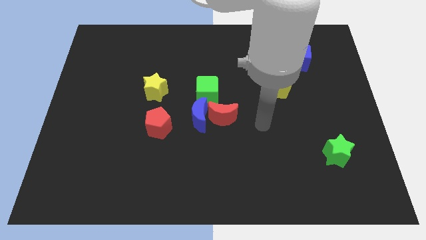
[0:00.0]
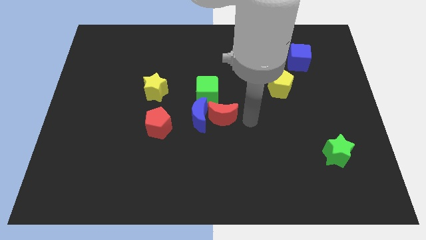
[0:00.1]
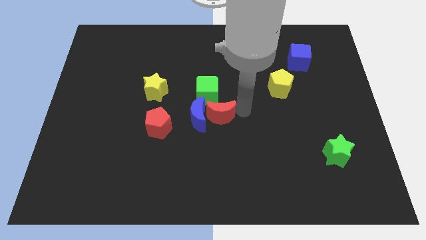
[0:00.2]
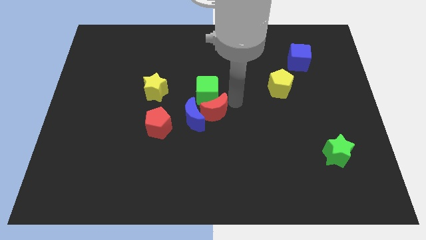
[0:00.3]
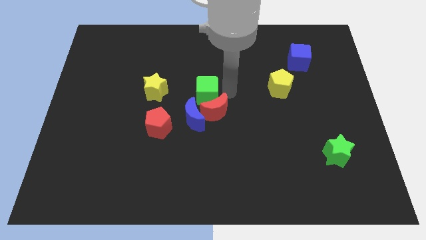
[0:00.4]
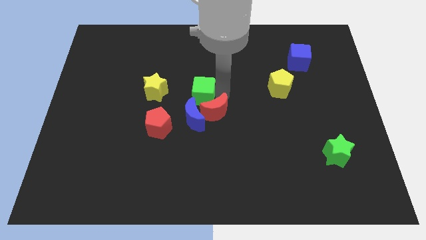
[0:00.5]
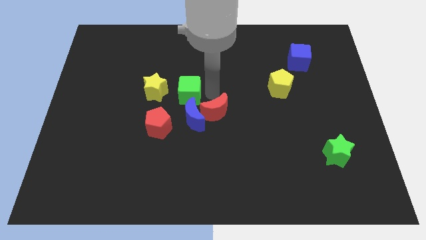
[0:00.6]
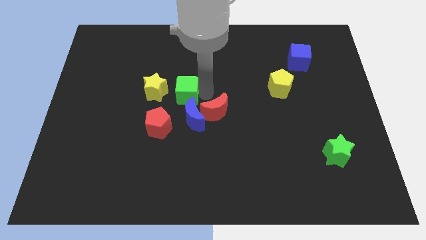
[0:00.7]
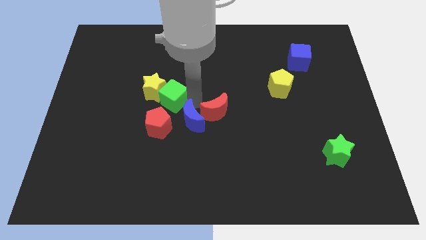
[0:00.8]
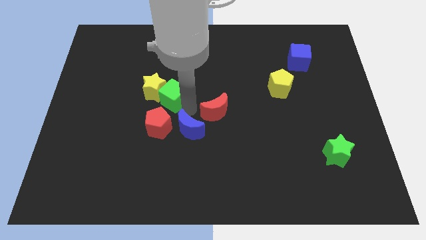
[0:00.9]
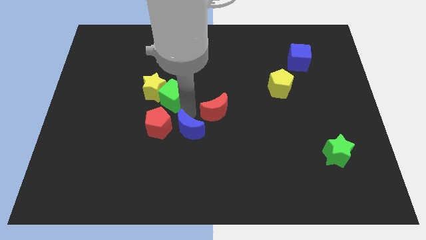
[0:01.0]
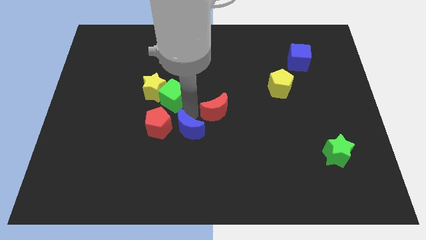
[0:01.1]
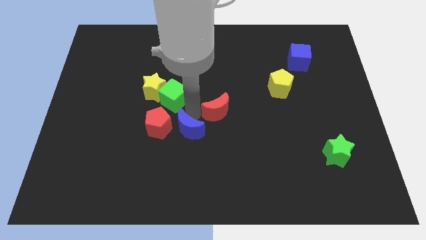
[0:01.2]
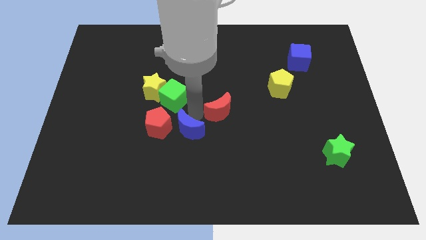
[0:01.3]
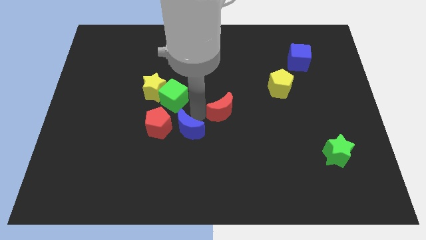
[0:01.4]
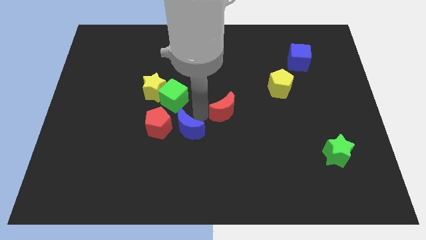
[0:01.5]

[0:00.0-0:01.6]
pull the red moon apart from the blue moon and green cube

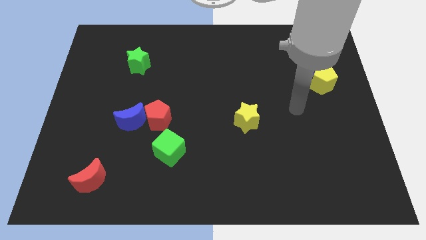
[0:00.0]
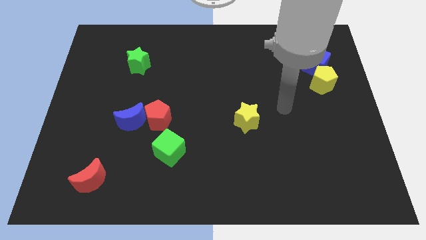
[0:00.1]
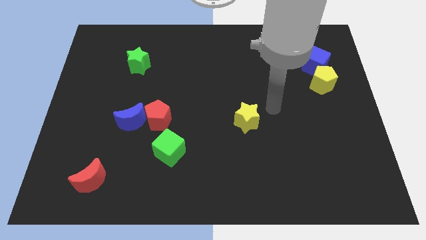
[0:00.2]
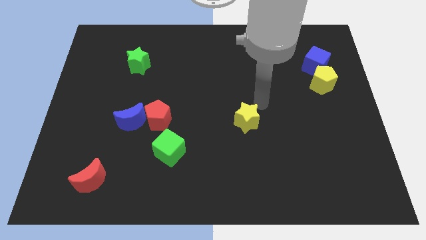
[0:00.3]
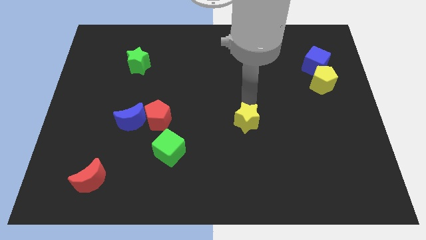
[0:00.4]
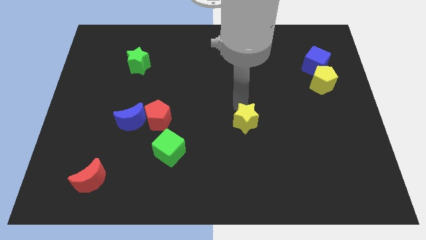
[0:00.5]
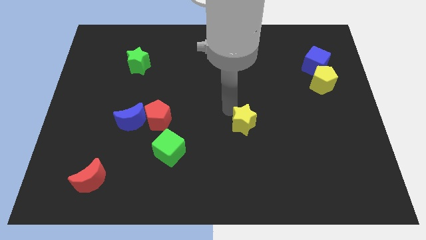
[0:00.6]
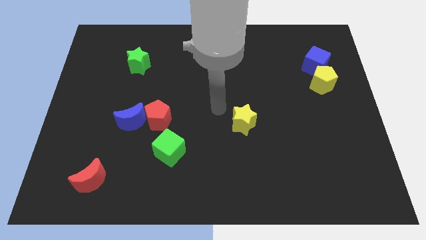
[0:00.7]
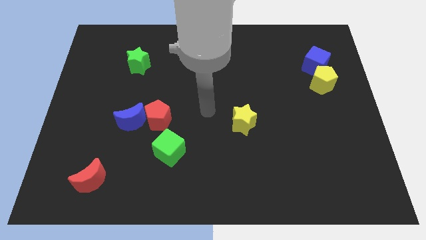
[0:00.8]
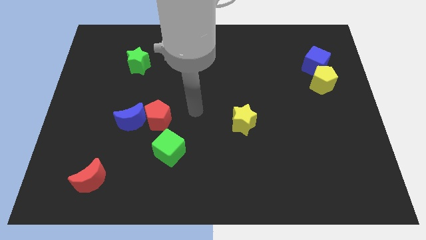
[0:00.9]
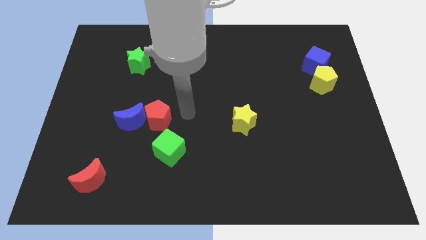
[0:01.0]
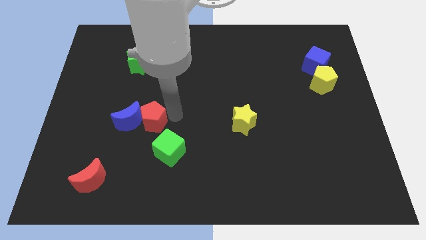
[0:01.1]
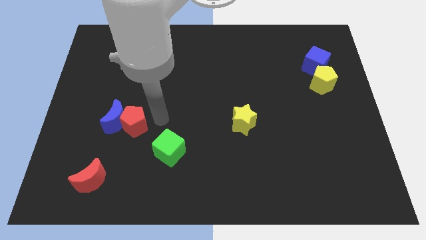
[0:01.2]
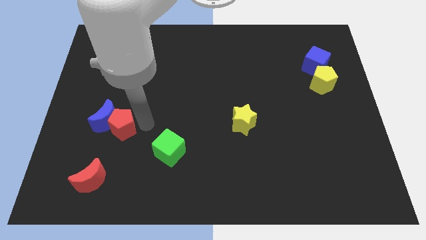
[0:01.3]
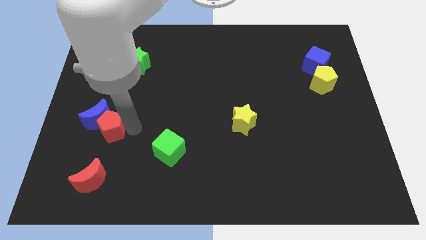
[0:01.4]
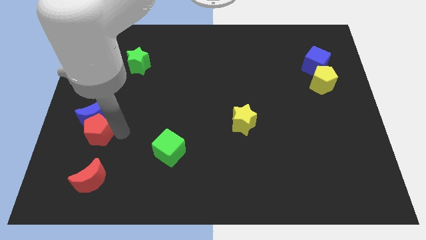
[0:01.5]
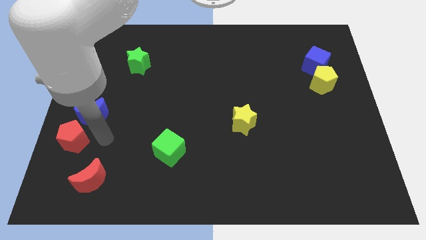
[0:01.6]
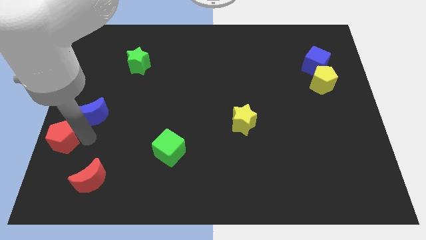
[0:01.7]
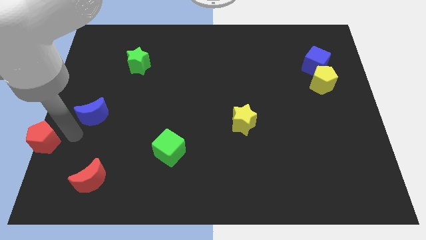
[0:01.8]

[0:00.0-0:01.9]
pull the blue moon apart from the red pentagon

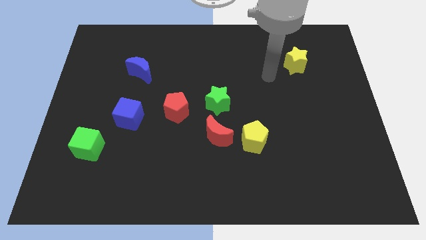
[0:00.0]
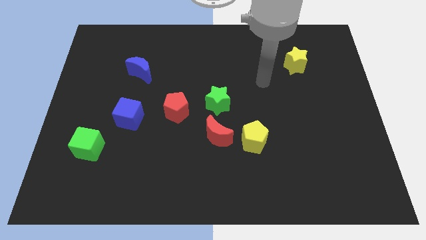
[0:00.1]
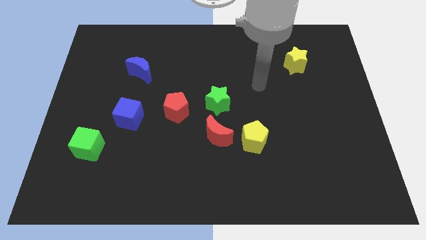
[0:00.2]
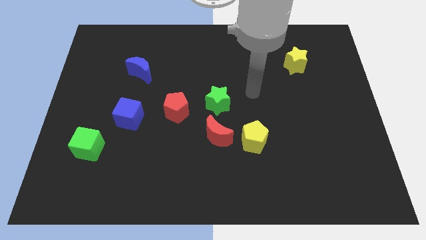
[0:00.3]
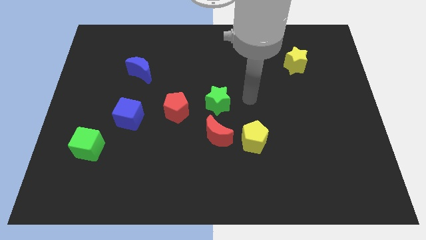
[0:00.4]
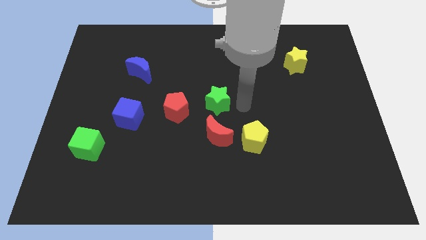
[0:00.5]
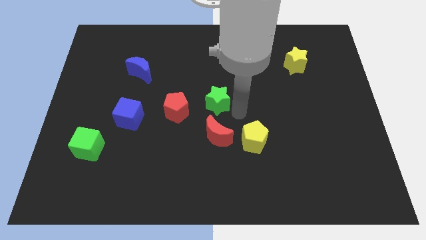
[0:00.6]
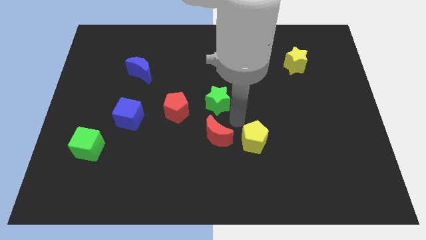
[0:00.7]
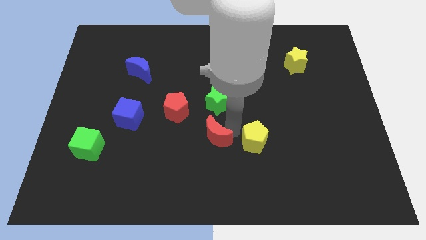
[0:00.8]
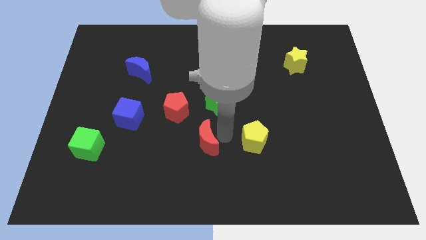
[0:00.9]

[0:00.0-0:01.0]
separate the yellow pentagon from the red moon

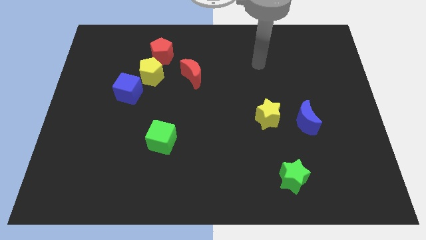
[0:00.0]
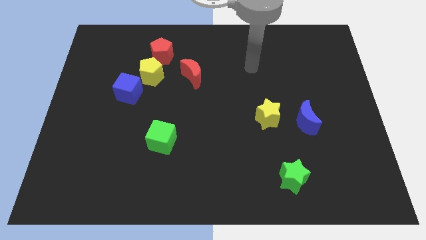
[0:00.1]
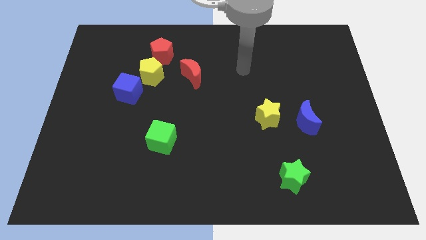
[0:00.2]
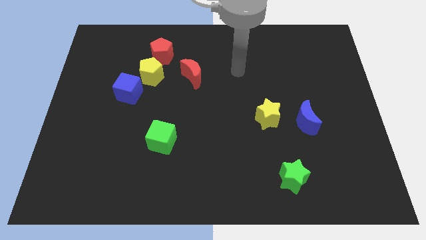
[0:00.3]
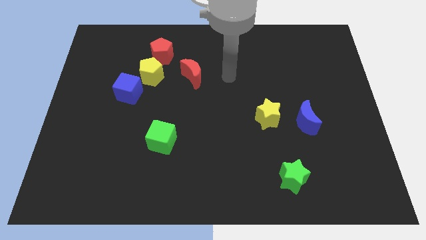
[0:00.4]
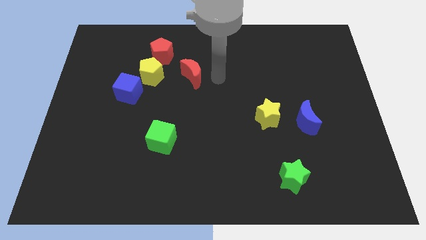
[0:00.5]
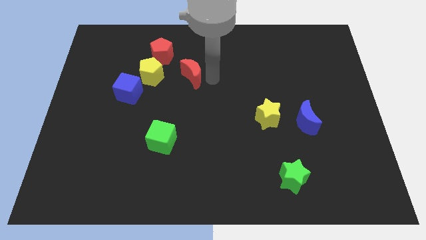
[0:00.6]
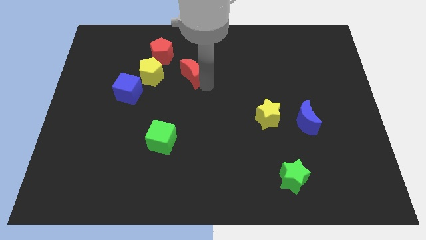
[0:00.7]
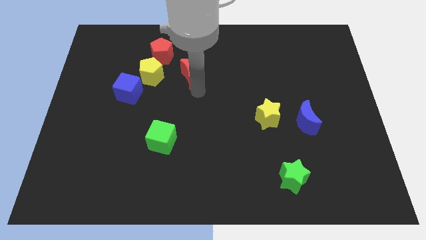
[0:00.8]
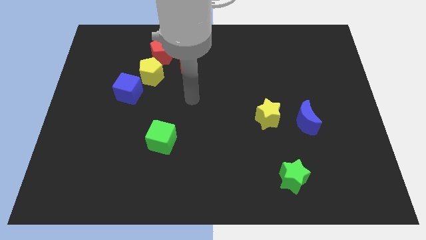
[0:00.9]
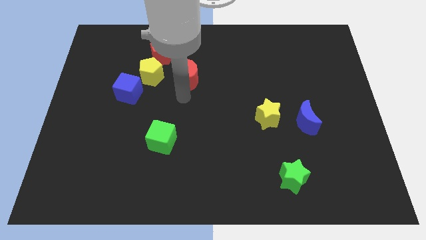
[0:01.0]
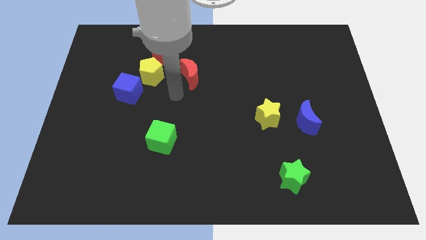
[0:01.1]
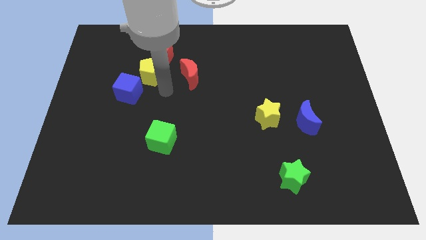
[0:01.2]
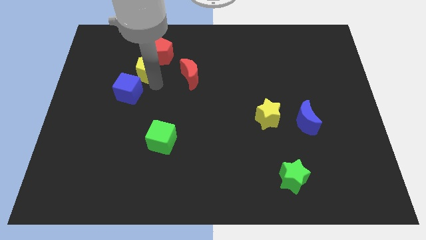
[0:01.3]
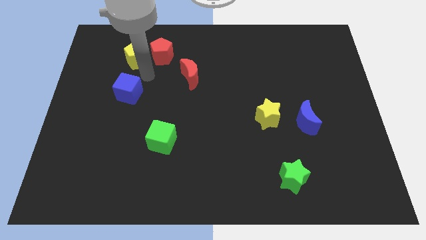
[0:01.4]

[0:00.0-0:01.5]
move the blue cube away from the yellow pentagon

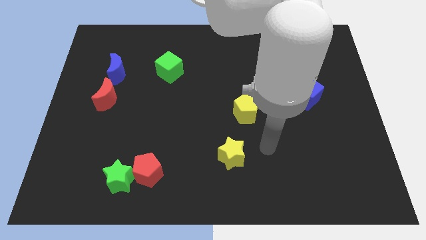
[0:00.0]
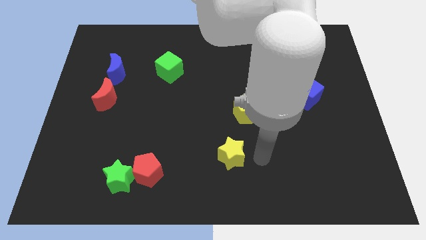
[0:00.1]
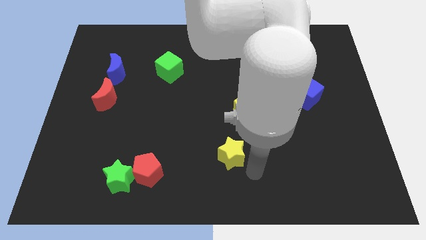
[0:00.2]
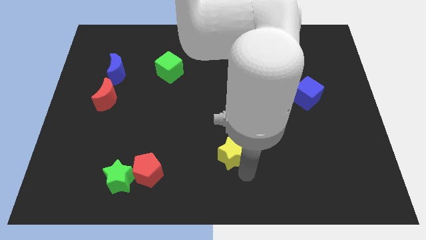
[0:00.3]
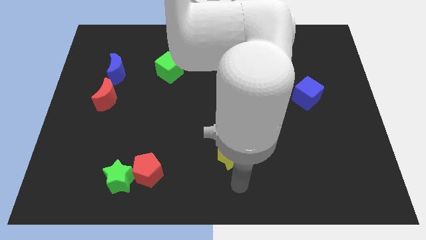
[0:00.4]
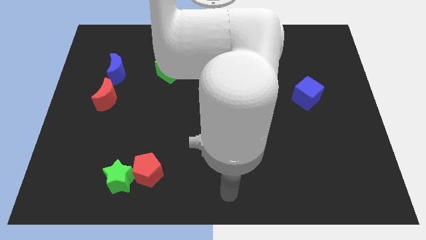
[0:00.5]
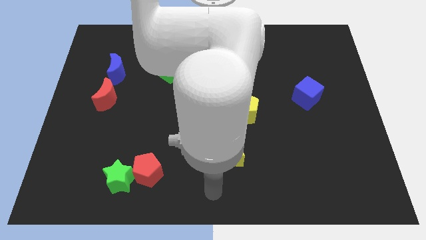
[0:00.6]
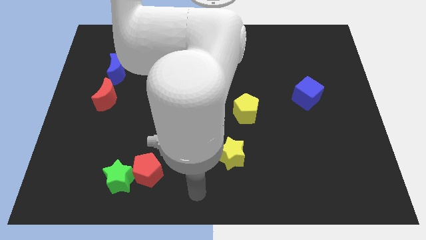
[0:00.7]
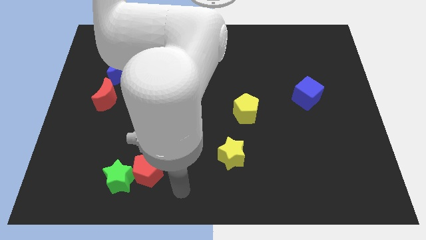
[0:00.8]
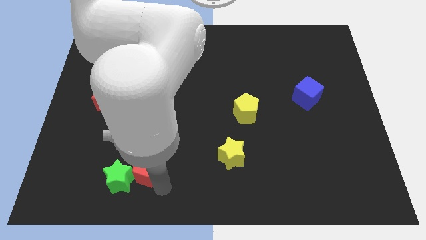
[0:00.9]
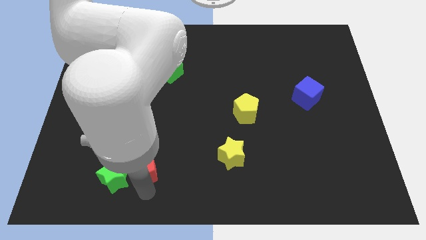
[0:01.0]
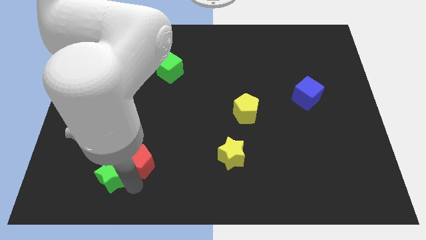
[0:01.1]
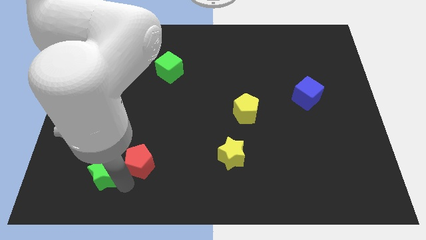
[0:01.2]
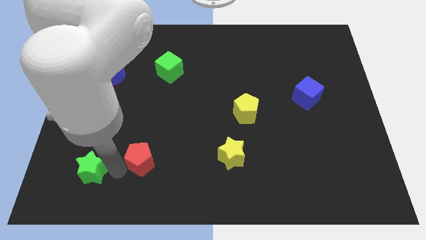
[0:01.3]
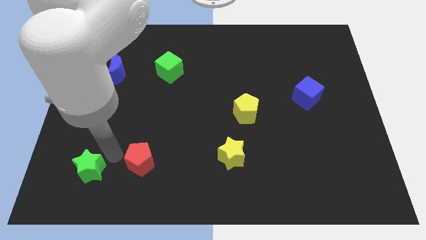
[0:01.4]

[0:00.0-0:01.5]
pull the red pentagon apart from the green star

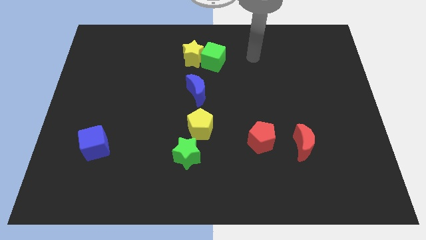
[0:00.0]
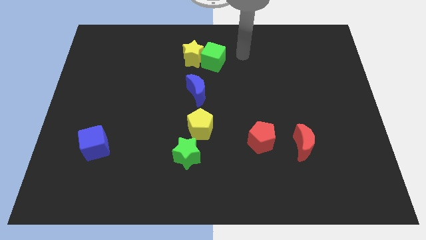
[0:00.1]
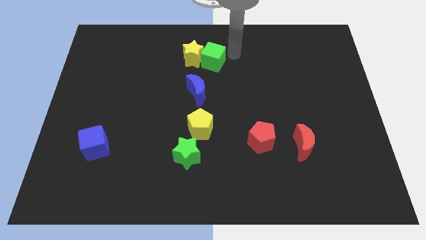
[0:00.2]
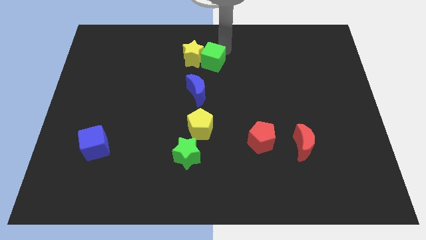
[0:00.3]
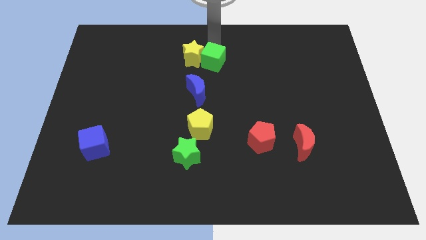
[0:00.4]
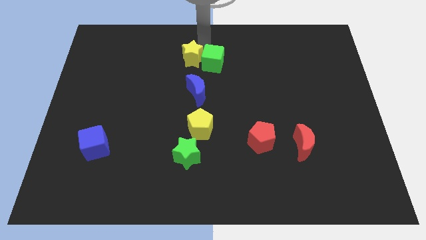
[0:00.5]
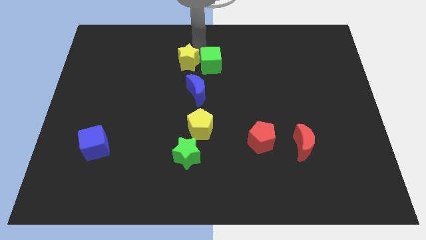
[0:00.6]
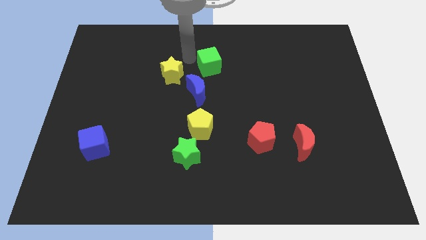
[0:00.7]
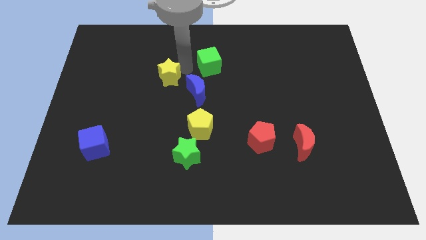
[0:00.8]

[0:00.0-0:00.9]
move the green cube away from the yellow star

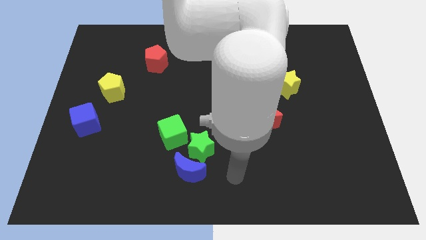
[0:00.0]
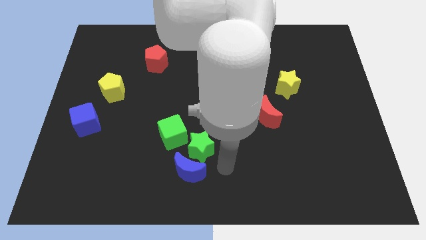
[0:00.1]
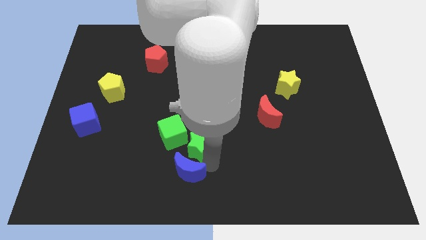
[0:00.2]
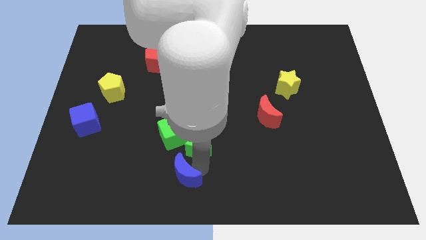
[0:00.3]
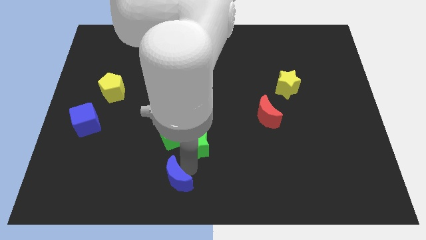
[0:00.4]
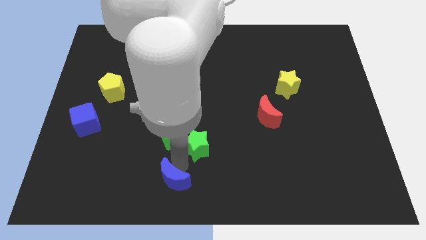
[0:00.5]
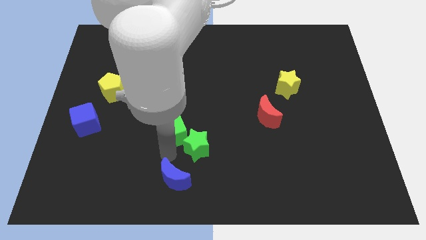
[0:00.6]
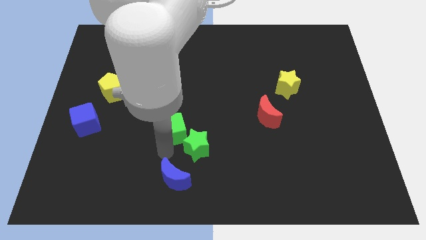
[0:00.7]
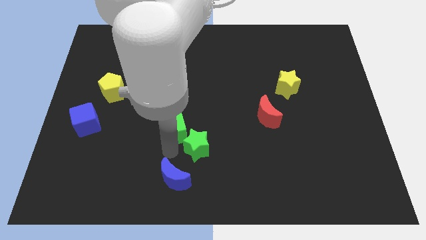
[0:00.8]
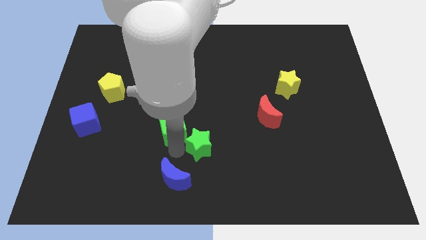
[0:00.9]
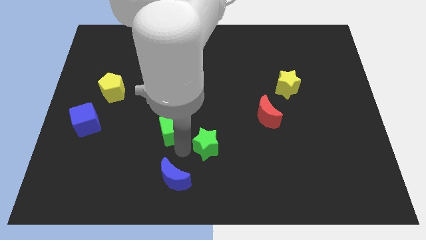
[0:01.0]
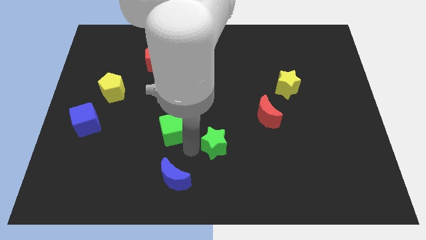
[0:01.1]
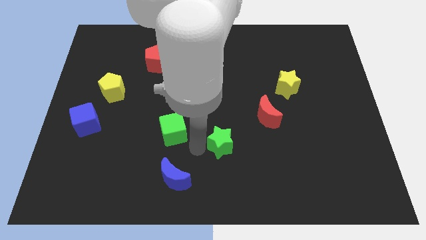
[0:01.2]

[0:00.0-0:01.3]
separate the green star from the blue moon and green cube
